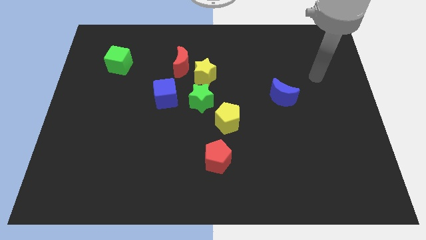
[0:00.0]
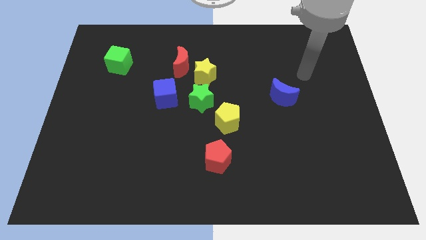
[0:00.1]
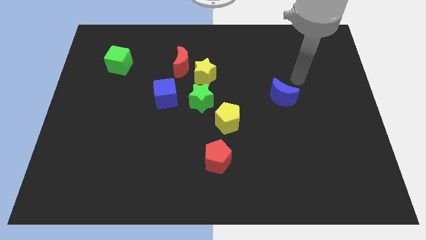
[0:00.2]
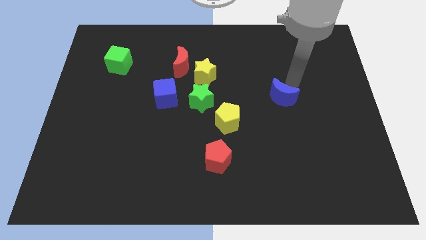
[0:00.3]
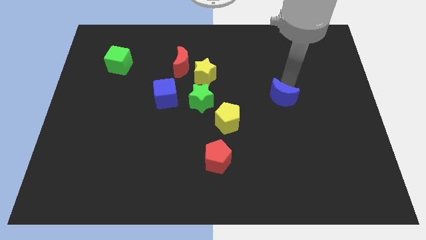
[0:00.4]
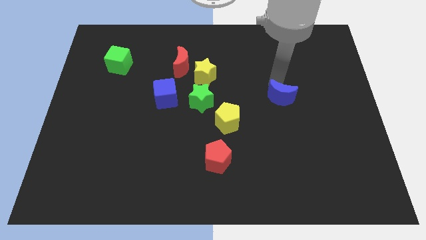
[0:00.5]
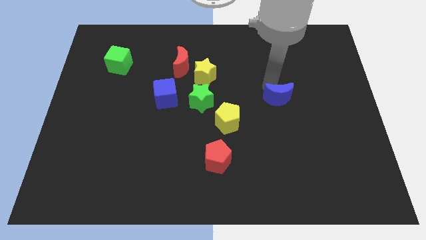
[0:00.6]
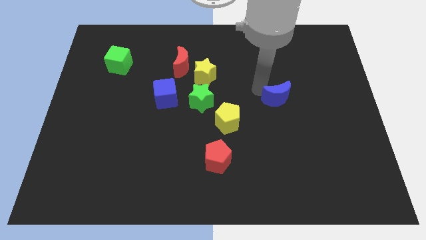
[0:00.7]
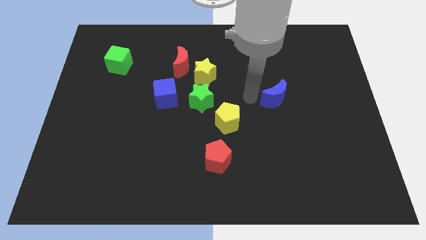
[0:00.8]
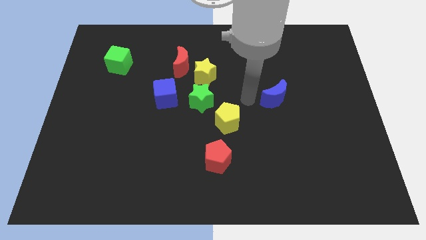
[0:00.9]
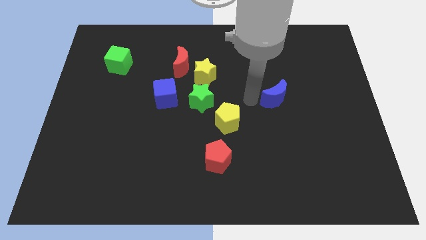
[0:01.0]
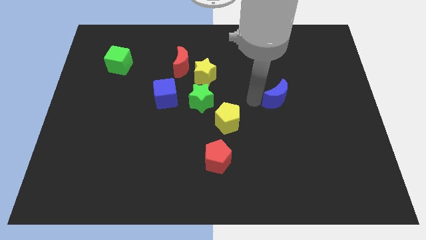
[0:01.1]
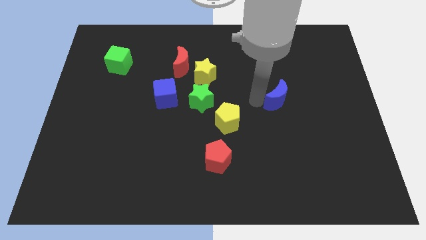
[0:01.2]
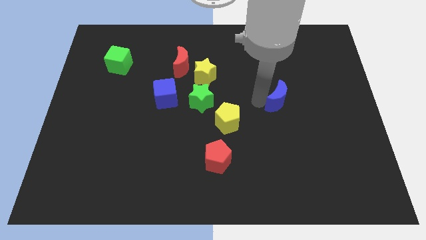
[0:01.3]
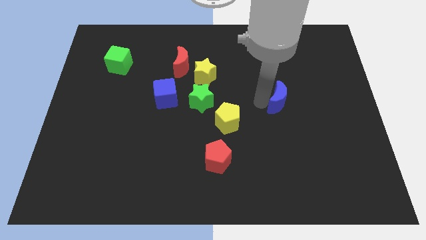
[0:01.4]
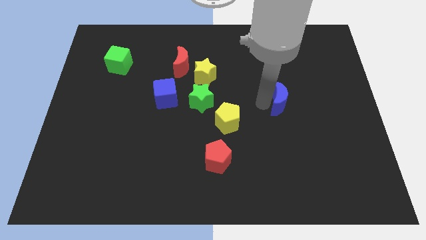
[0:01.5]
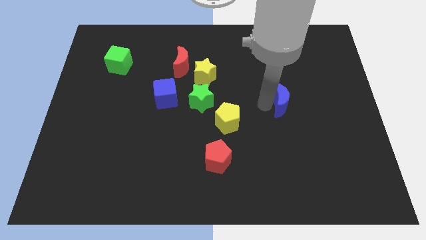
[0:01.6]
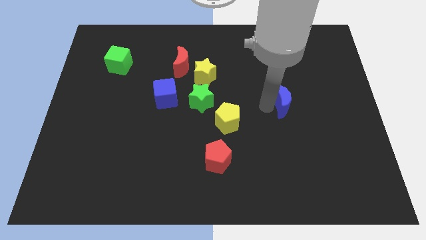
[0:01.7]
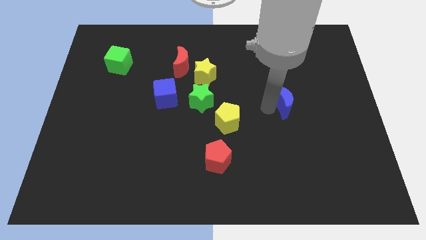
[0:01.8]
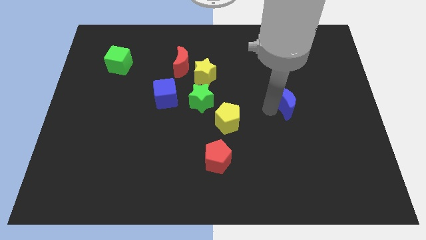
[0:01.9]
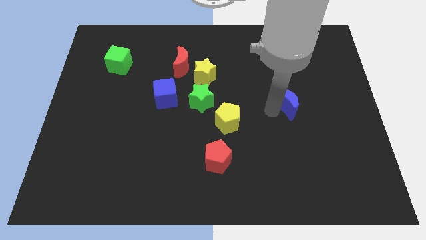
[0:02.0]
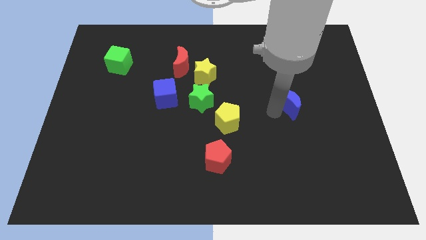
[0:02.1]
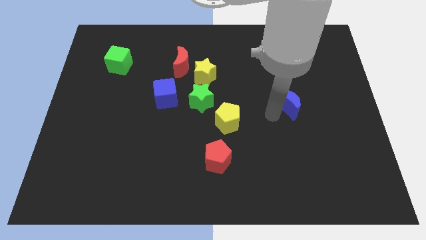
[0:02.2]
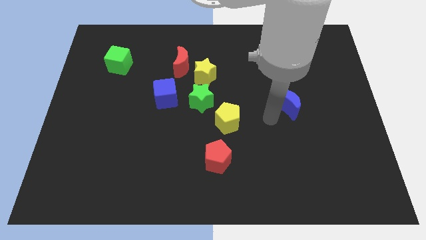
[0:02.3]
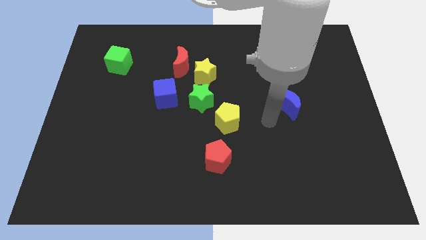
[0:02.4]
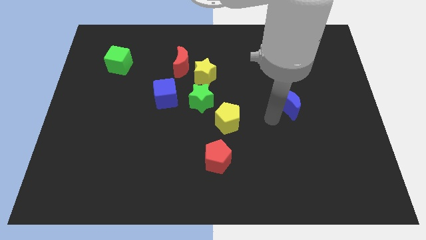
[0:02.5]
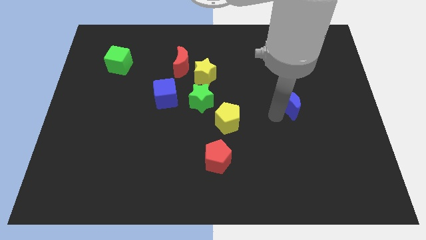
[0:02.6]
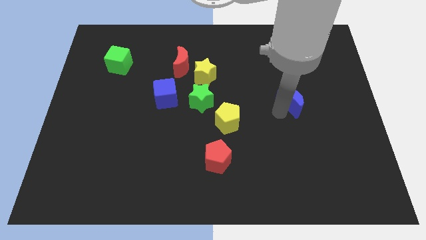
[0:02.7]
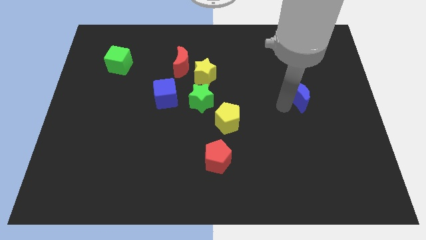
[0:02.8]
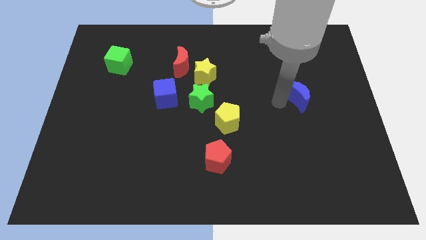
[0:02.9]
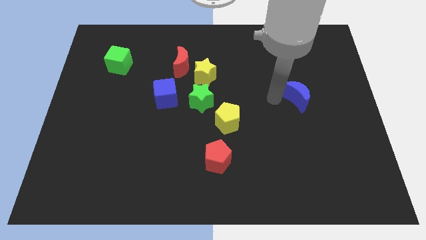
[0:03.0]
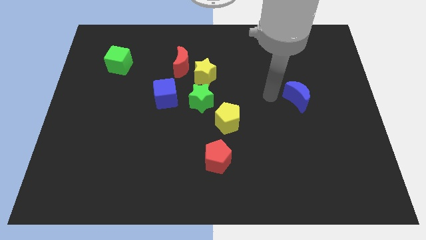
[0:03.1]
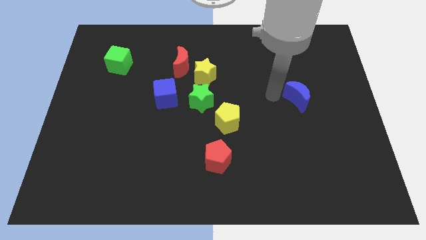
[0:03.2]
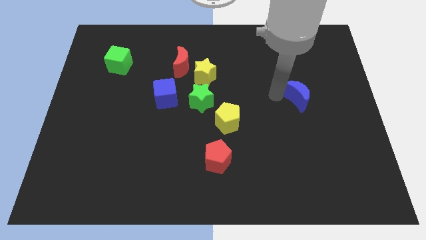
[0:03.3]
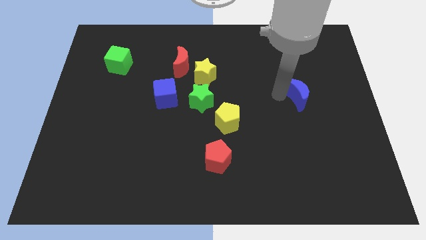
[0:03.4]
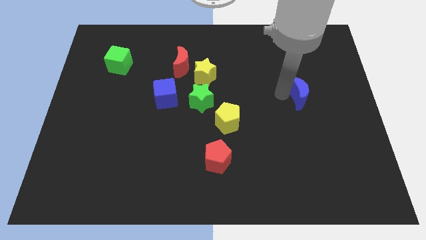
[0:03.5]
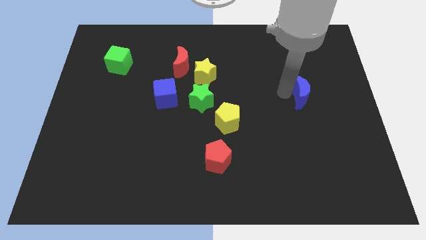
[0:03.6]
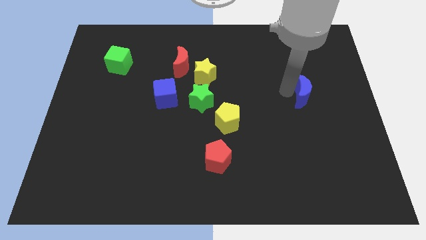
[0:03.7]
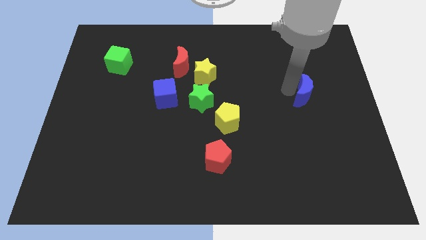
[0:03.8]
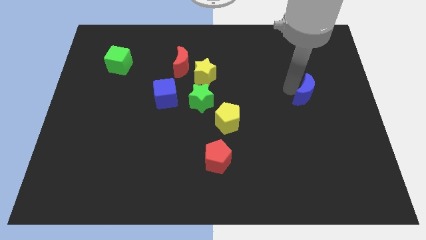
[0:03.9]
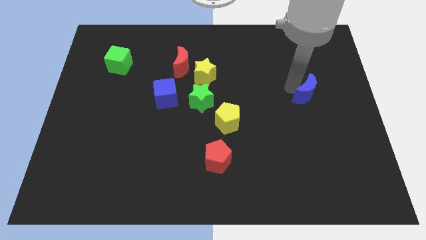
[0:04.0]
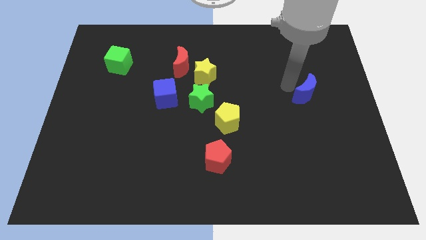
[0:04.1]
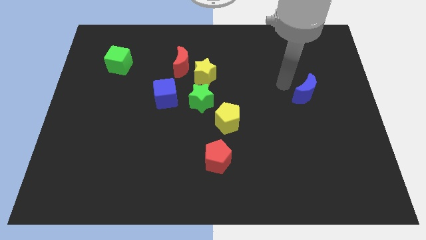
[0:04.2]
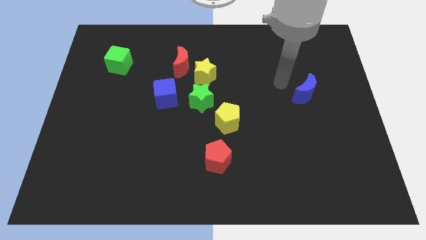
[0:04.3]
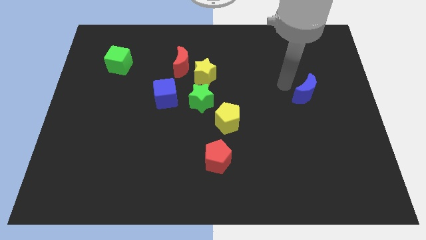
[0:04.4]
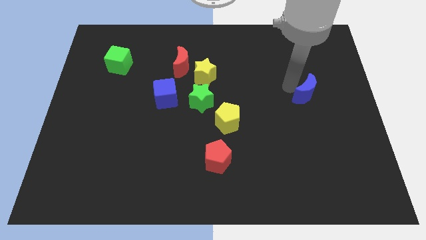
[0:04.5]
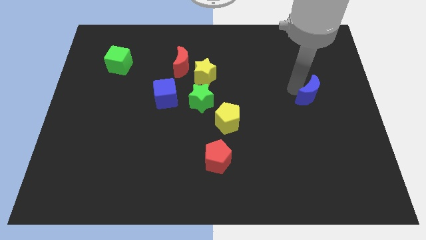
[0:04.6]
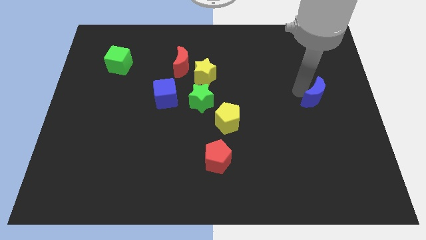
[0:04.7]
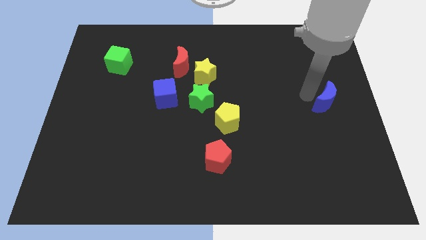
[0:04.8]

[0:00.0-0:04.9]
push the blue moon to the right side of the board

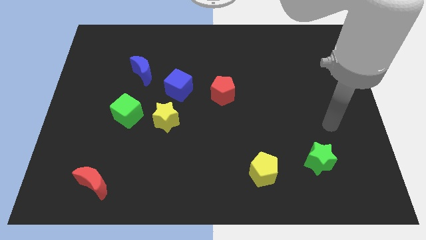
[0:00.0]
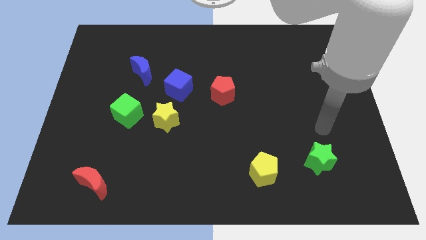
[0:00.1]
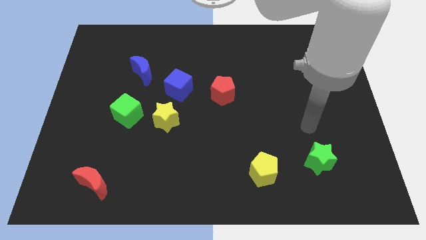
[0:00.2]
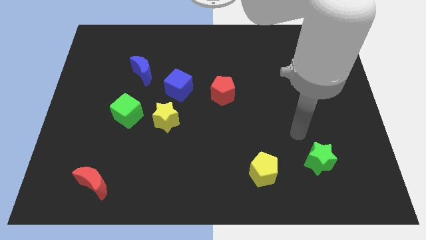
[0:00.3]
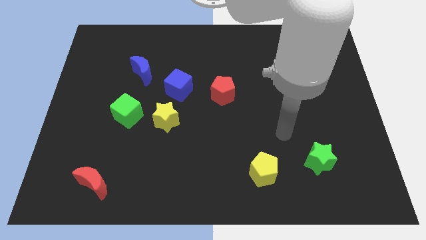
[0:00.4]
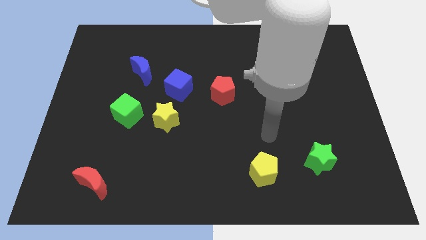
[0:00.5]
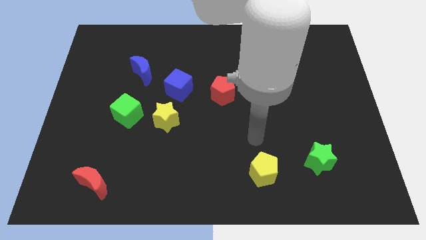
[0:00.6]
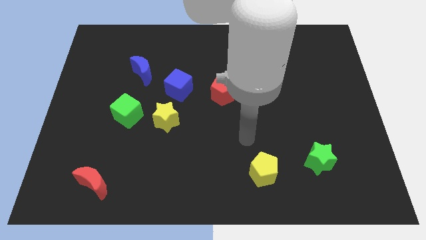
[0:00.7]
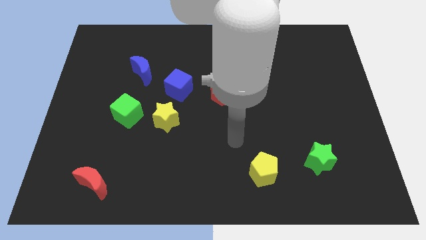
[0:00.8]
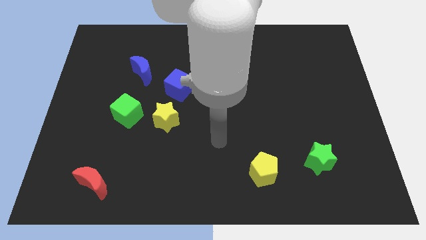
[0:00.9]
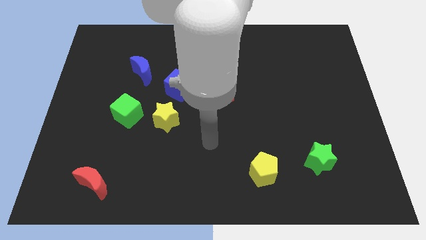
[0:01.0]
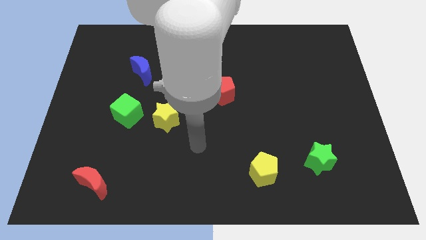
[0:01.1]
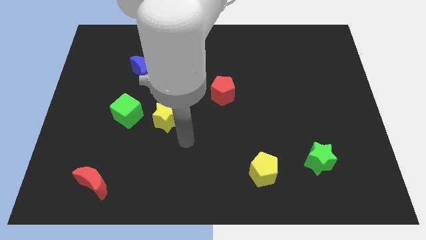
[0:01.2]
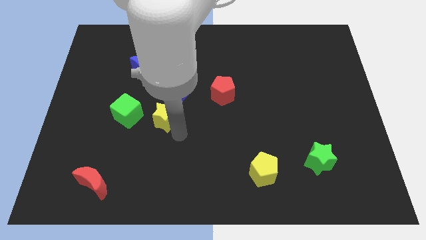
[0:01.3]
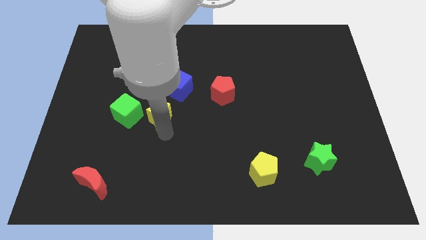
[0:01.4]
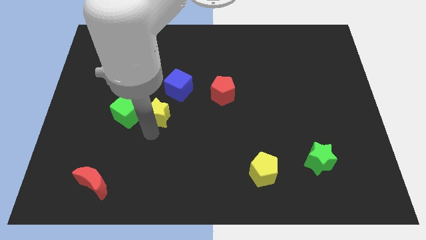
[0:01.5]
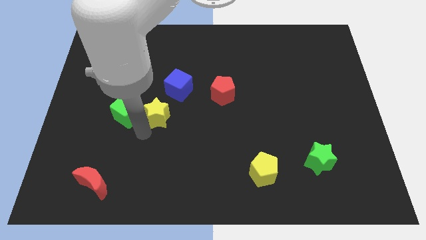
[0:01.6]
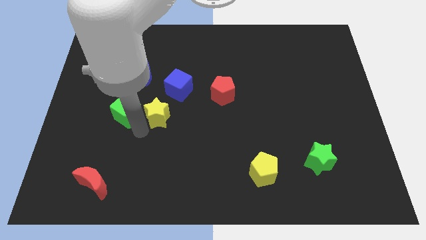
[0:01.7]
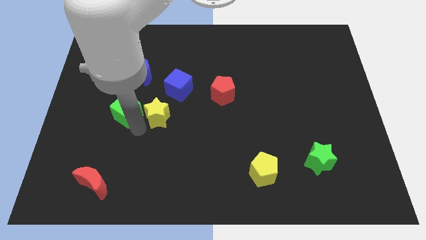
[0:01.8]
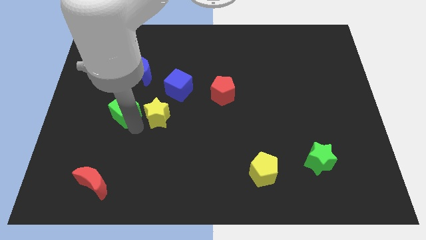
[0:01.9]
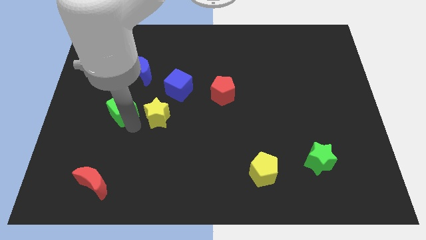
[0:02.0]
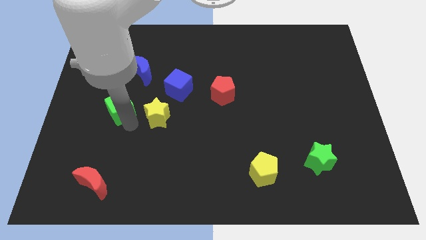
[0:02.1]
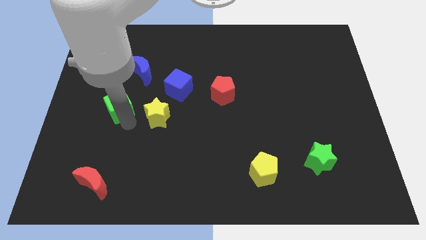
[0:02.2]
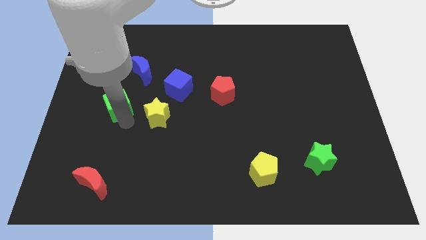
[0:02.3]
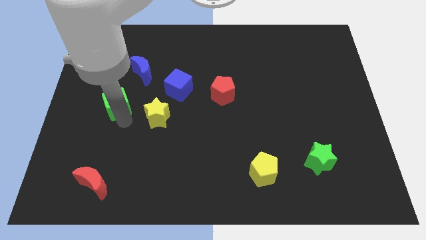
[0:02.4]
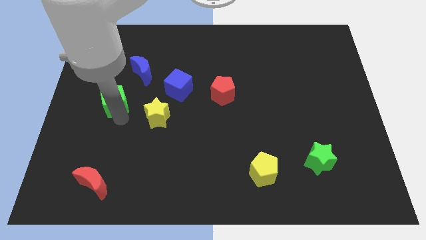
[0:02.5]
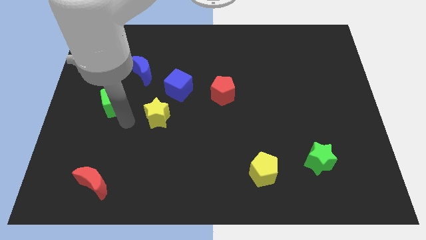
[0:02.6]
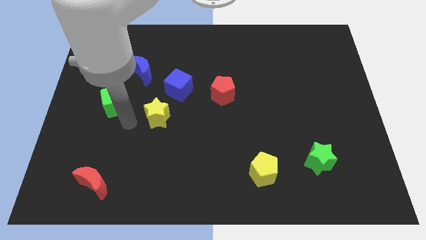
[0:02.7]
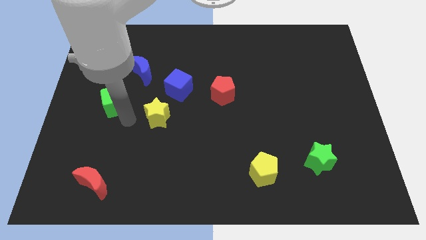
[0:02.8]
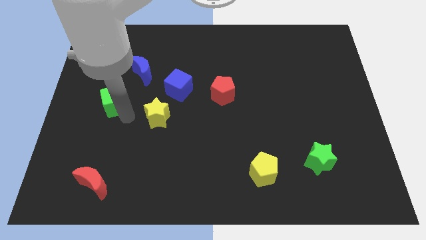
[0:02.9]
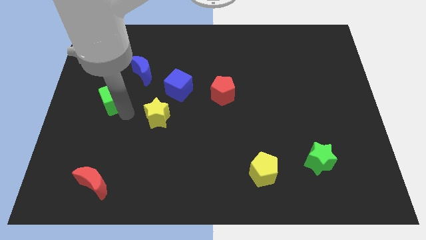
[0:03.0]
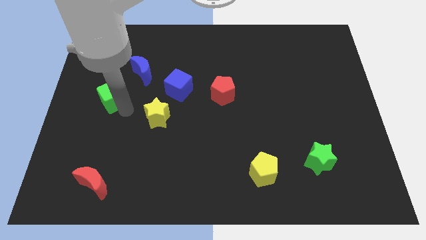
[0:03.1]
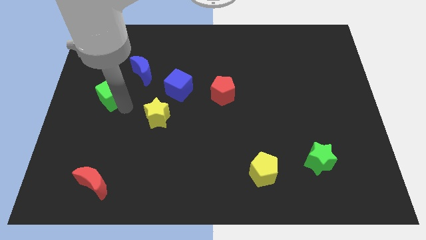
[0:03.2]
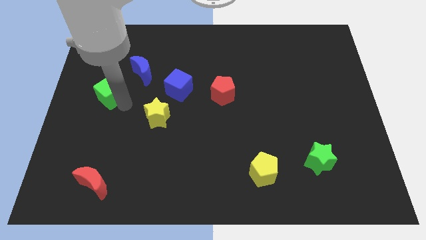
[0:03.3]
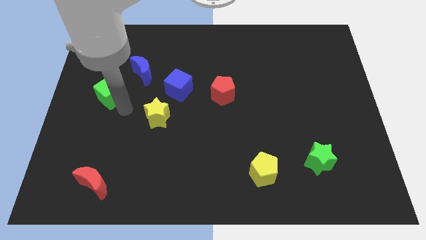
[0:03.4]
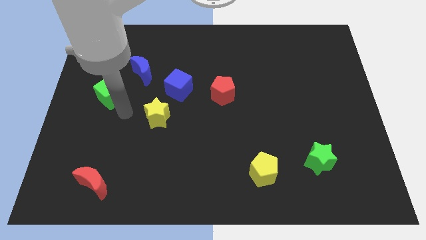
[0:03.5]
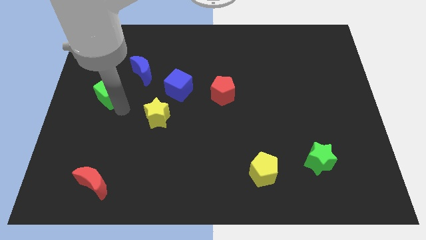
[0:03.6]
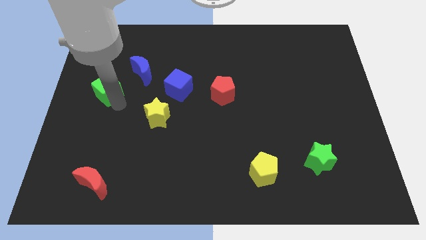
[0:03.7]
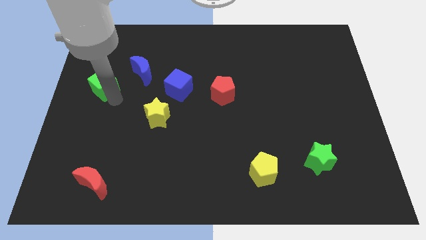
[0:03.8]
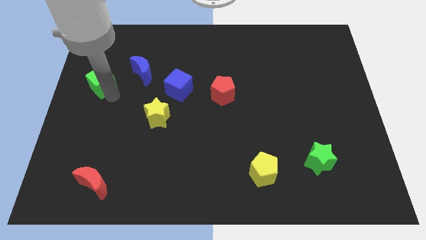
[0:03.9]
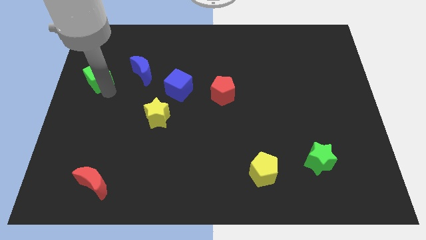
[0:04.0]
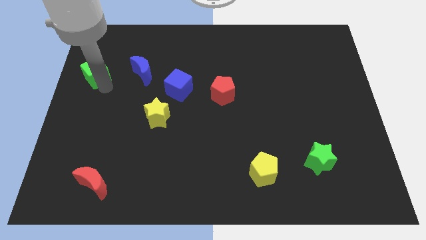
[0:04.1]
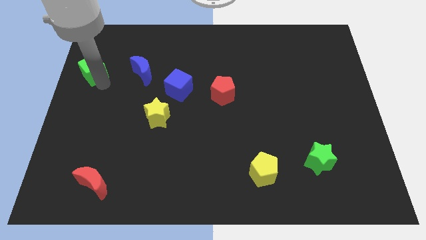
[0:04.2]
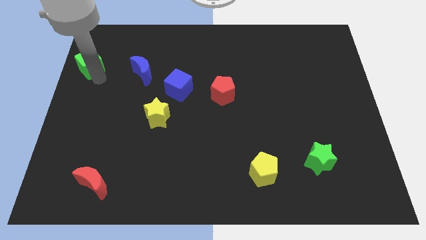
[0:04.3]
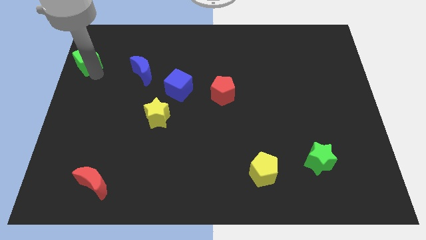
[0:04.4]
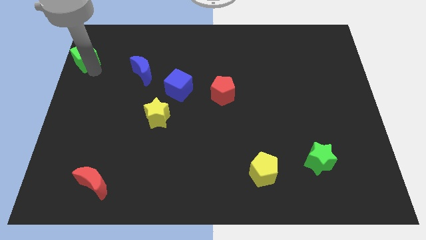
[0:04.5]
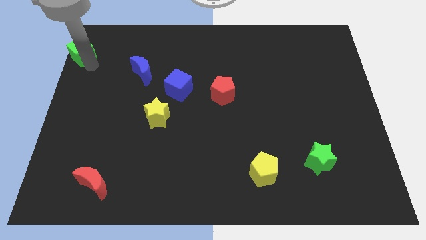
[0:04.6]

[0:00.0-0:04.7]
slide the green cube to the upper left corner
